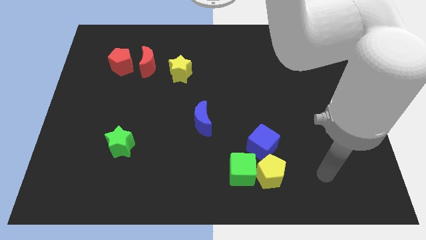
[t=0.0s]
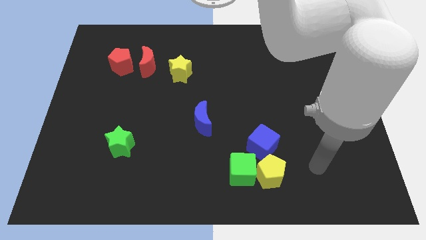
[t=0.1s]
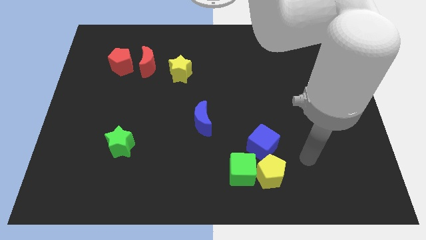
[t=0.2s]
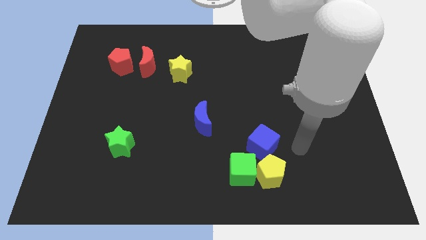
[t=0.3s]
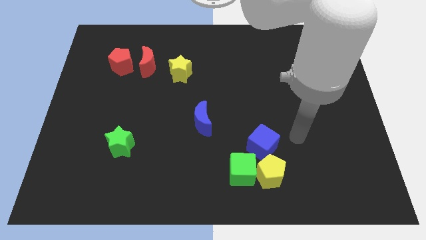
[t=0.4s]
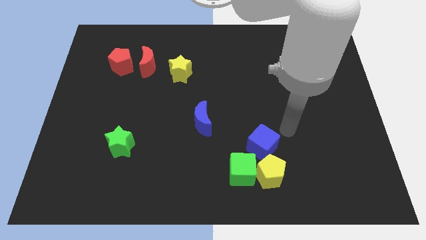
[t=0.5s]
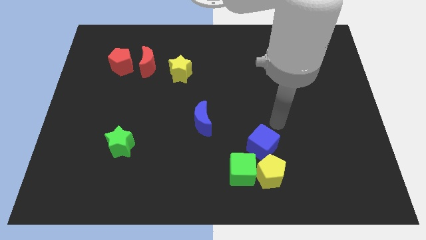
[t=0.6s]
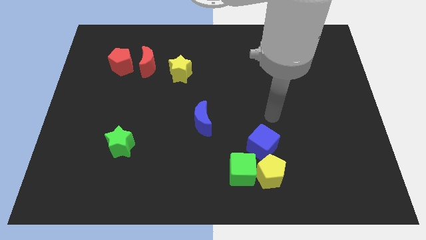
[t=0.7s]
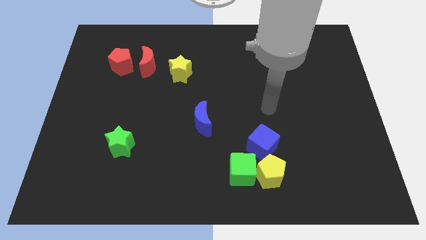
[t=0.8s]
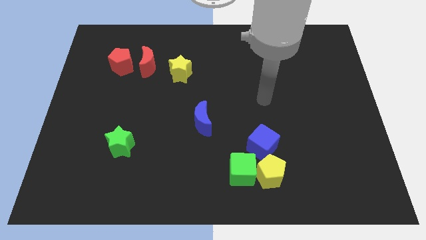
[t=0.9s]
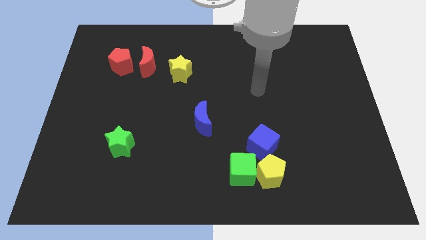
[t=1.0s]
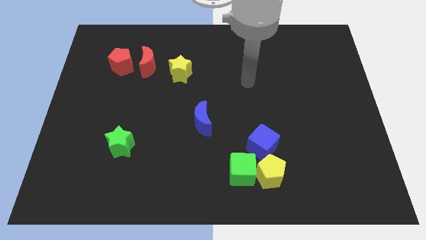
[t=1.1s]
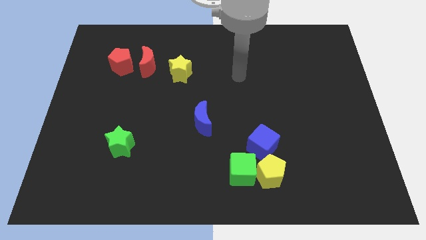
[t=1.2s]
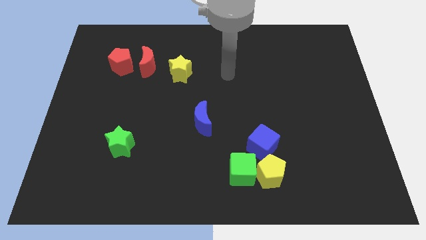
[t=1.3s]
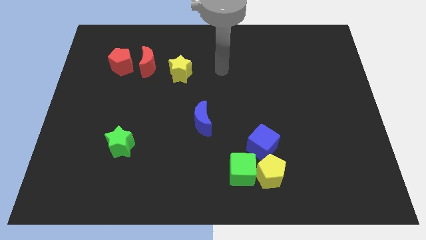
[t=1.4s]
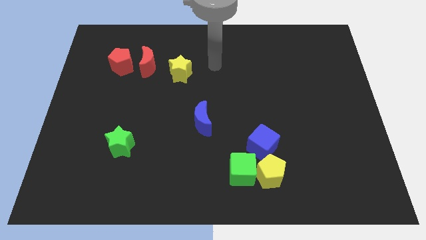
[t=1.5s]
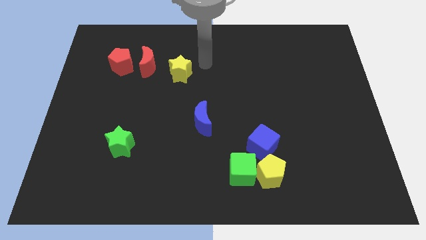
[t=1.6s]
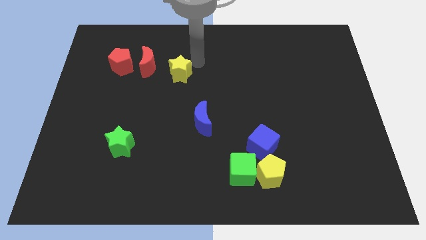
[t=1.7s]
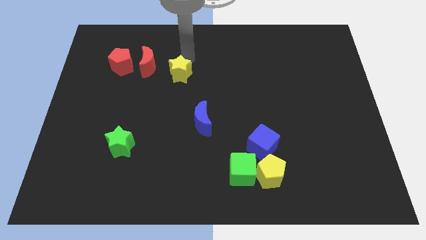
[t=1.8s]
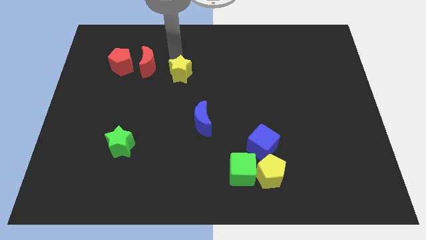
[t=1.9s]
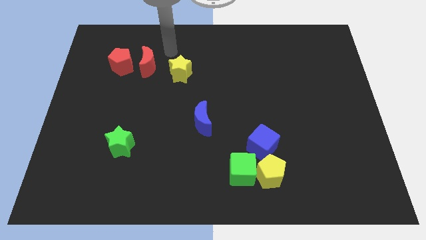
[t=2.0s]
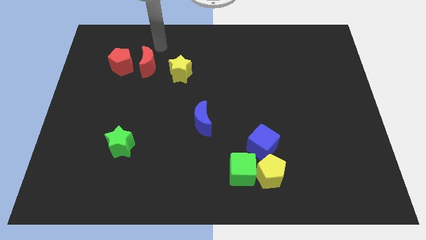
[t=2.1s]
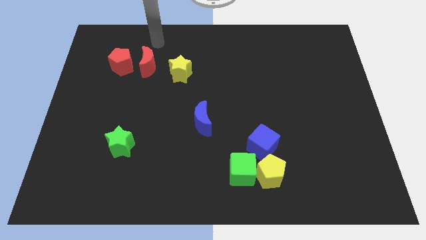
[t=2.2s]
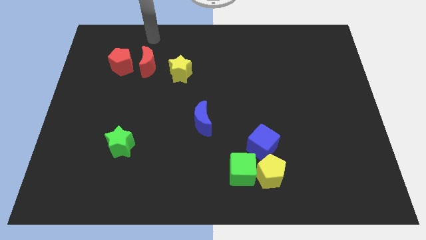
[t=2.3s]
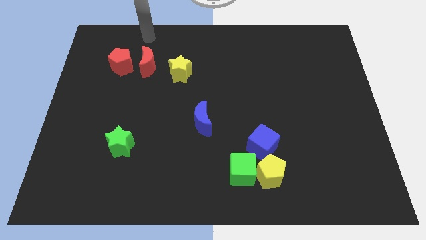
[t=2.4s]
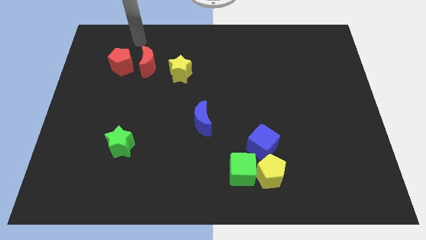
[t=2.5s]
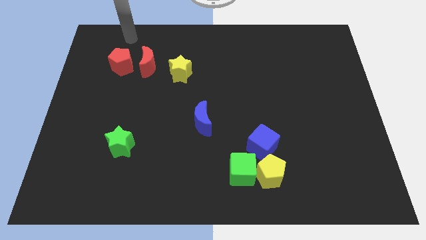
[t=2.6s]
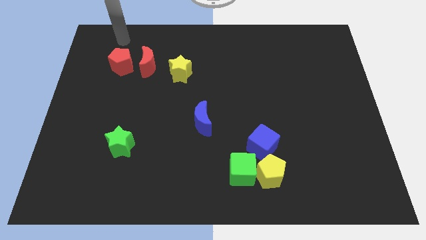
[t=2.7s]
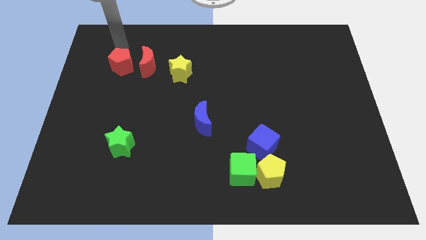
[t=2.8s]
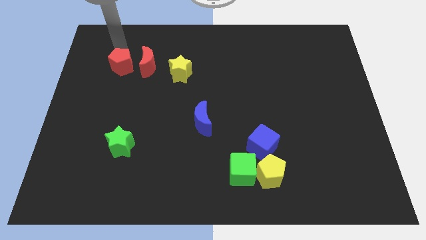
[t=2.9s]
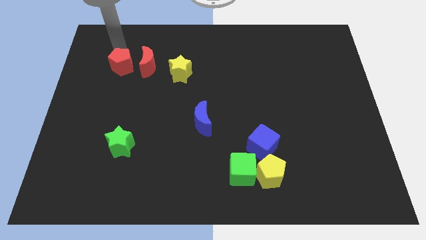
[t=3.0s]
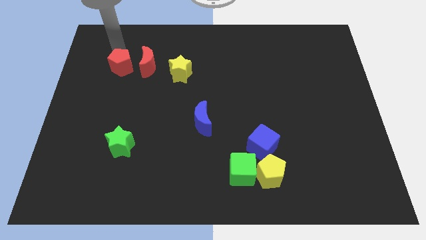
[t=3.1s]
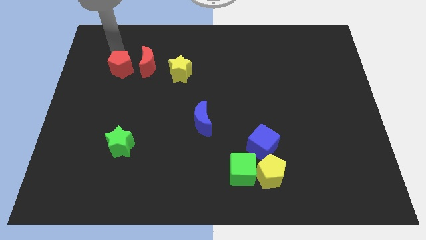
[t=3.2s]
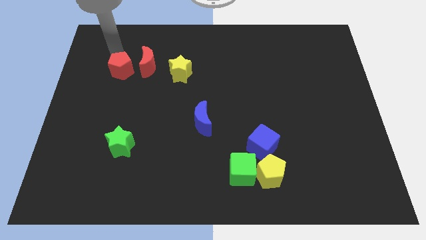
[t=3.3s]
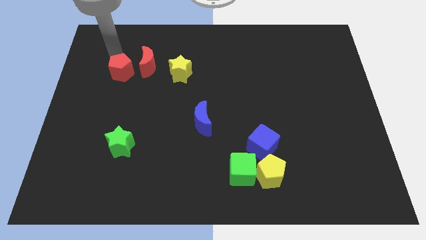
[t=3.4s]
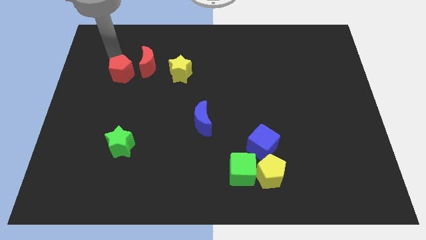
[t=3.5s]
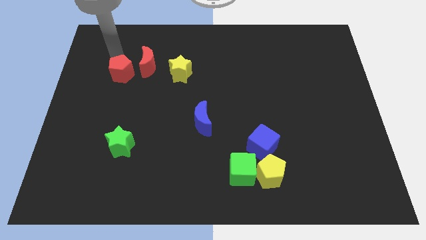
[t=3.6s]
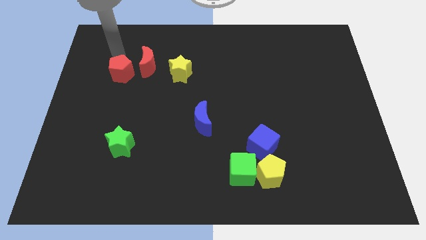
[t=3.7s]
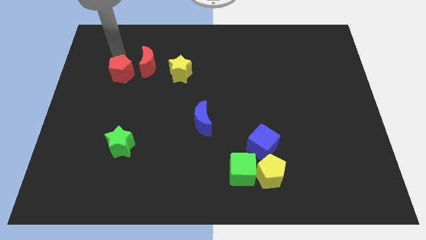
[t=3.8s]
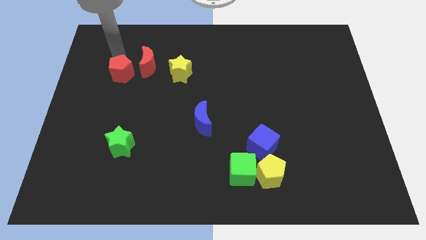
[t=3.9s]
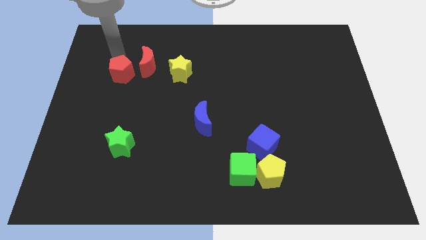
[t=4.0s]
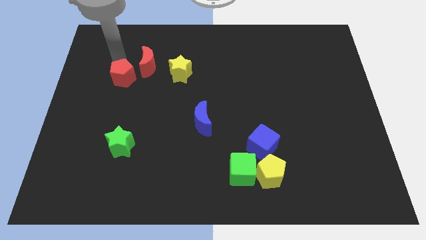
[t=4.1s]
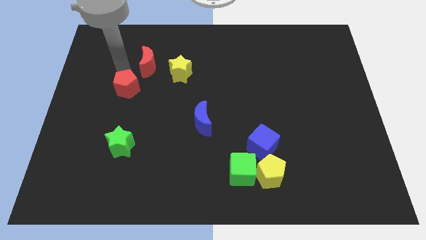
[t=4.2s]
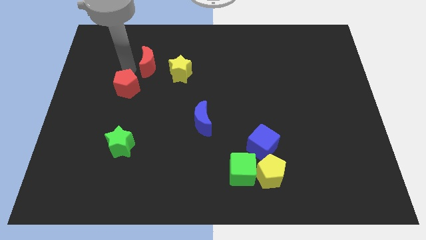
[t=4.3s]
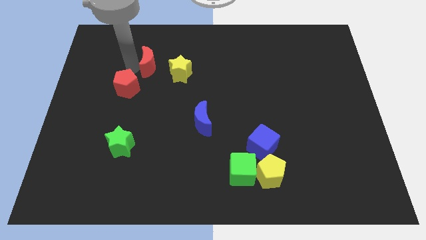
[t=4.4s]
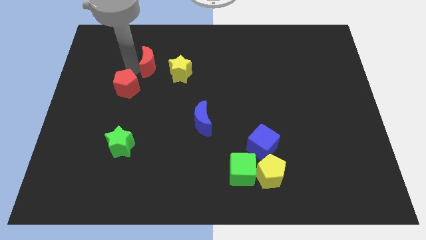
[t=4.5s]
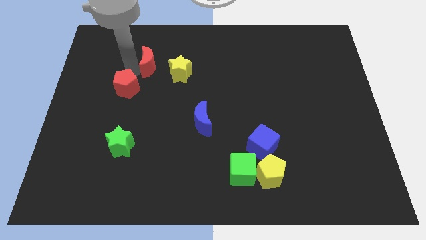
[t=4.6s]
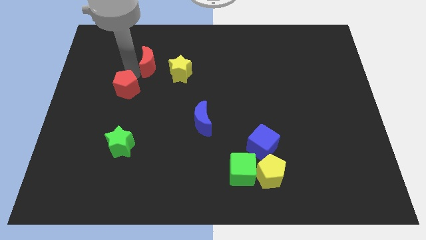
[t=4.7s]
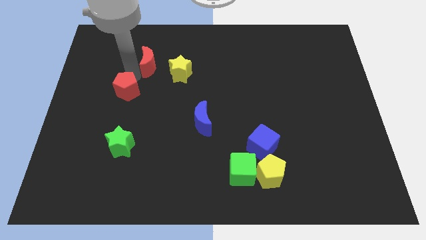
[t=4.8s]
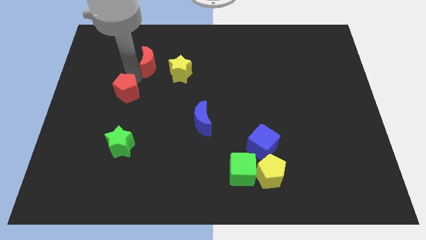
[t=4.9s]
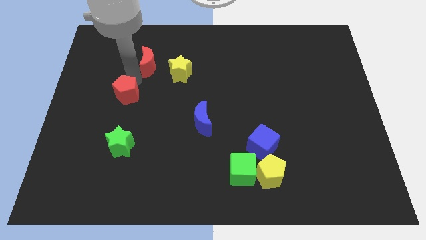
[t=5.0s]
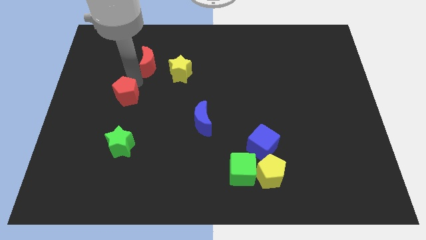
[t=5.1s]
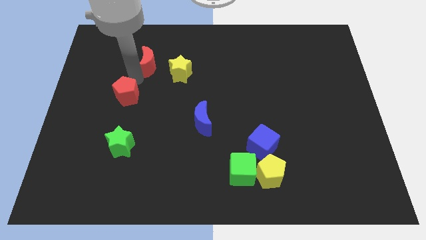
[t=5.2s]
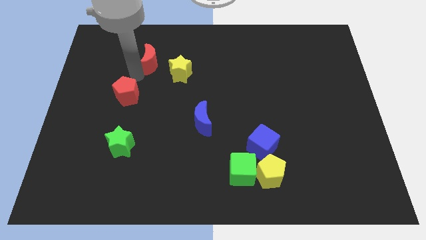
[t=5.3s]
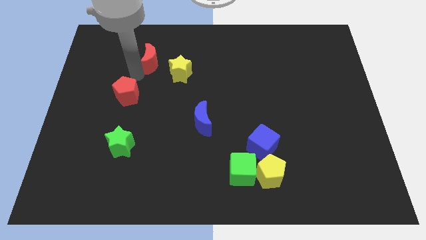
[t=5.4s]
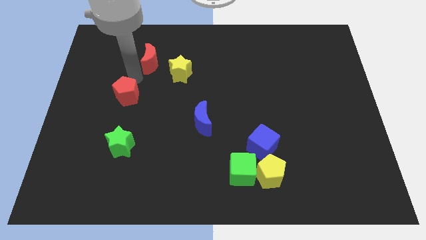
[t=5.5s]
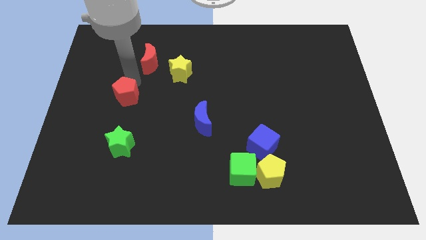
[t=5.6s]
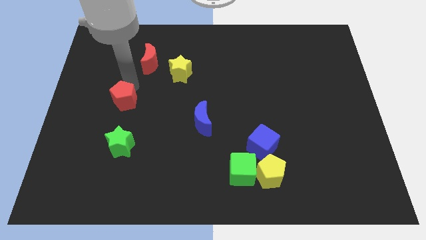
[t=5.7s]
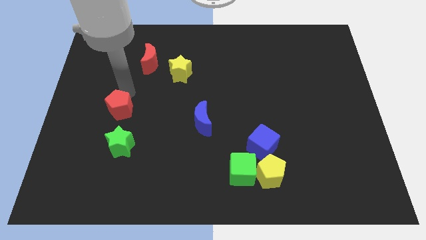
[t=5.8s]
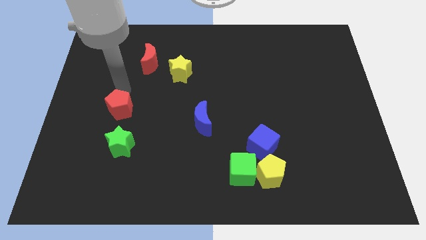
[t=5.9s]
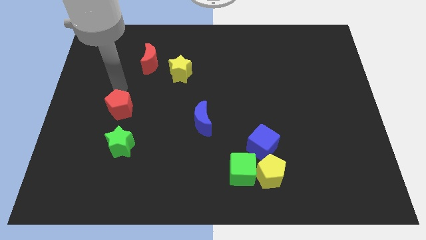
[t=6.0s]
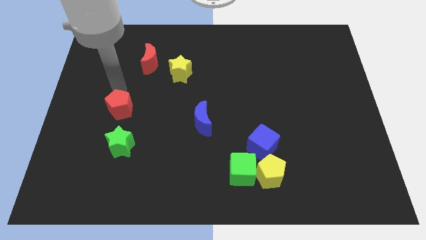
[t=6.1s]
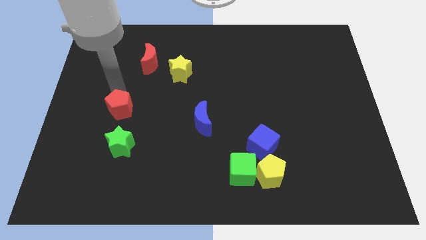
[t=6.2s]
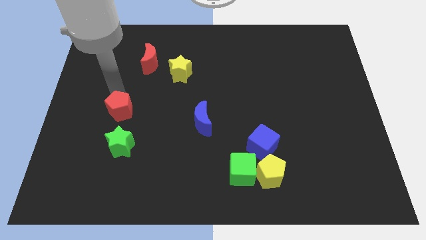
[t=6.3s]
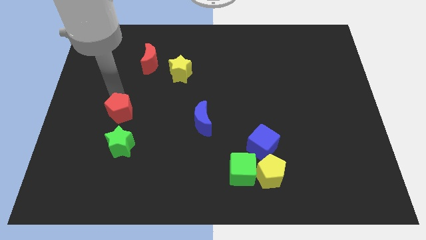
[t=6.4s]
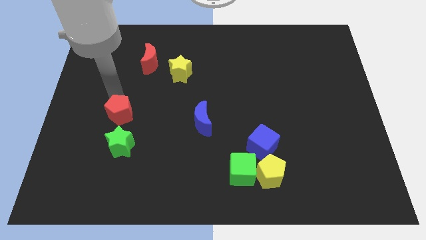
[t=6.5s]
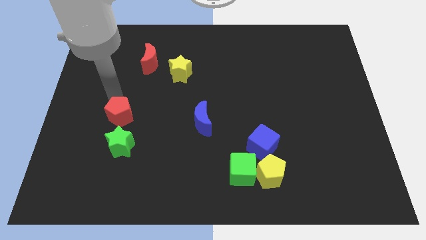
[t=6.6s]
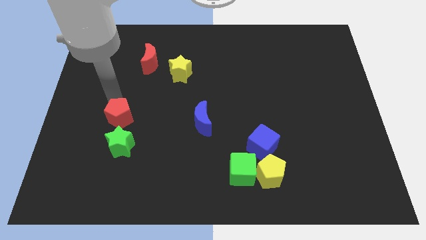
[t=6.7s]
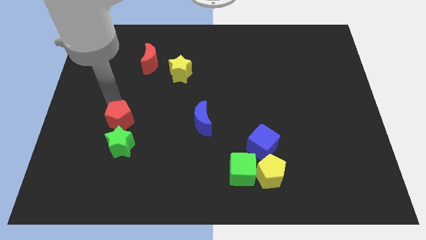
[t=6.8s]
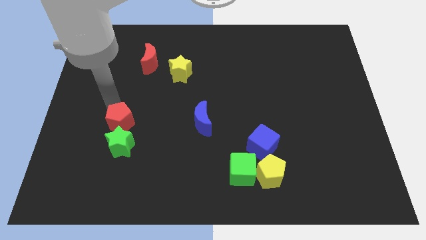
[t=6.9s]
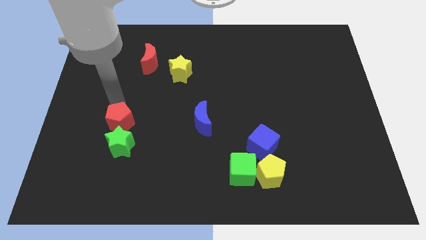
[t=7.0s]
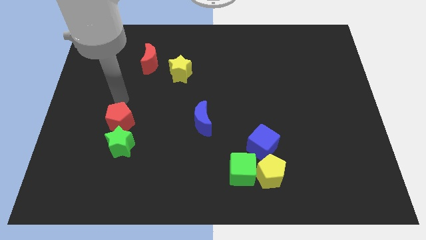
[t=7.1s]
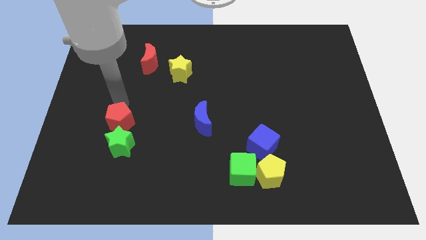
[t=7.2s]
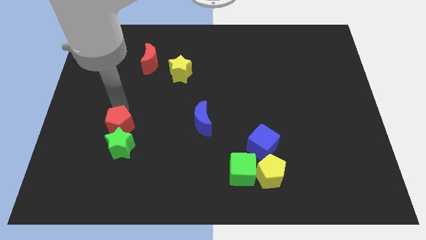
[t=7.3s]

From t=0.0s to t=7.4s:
push the red pentagon towards the green star
